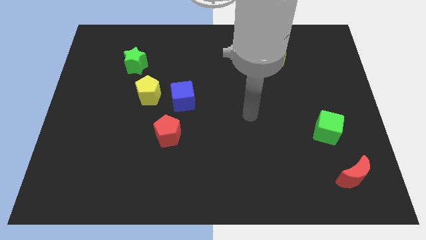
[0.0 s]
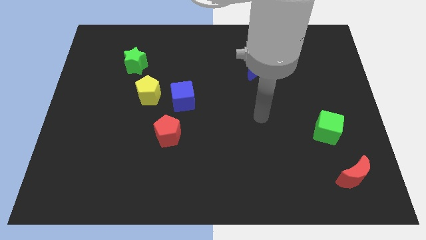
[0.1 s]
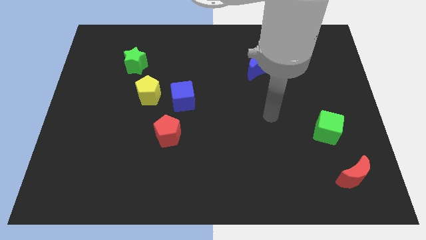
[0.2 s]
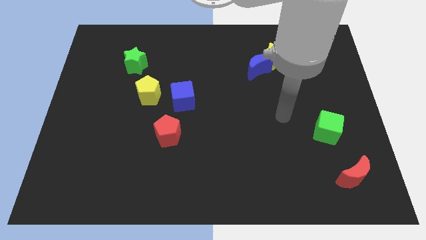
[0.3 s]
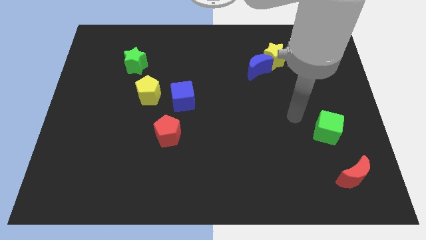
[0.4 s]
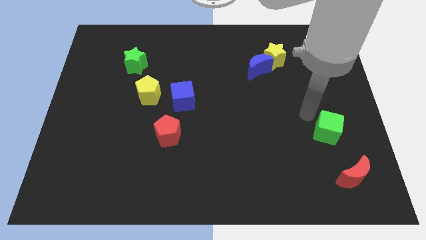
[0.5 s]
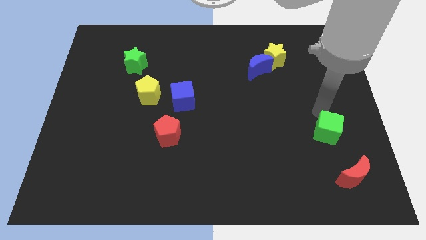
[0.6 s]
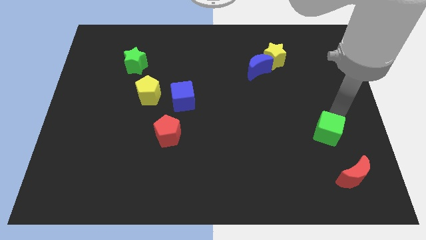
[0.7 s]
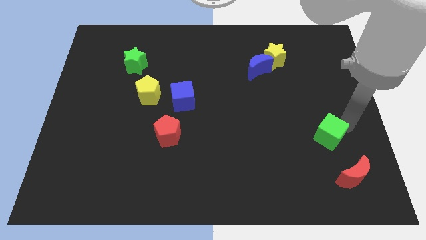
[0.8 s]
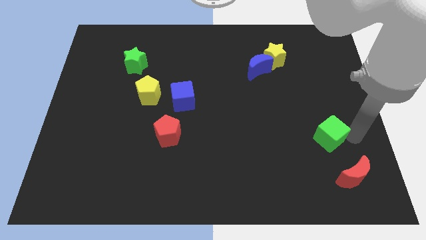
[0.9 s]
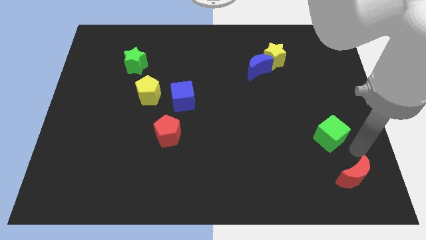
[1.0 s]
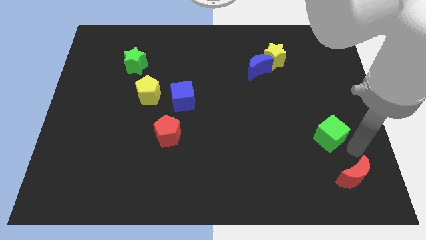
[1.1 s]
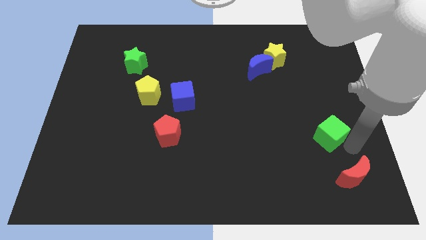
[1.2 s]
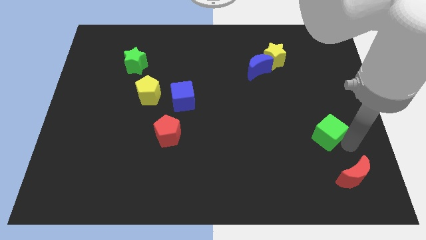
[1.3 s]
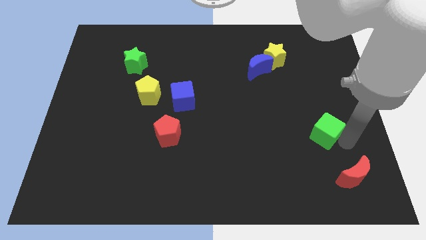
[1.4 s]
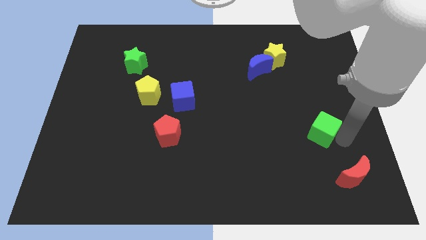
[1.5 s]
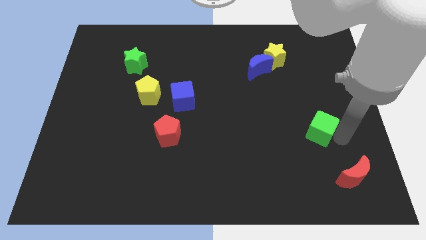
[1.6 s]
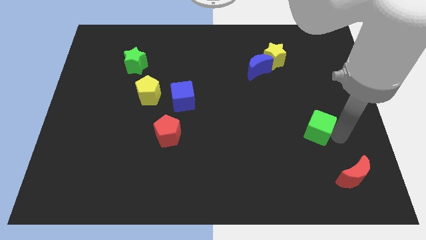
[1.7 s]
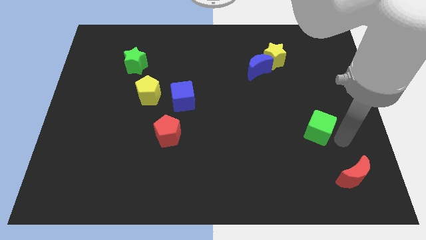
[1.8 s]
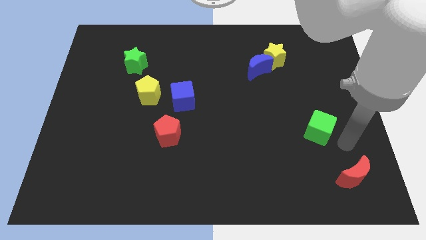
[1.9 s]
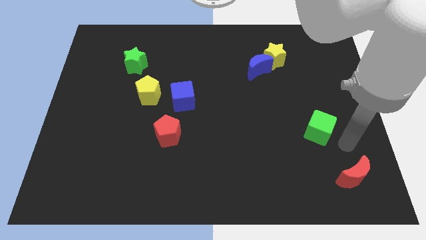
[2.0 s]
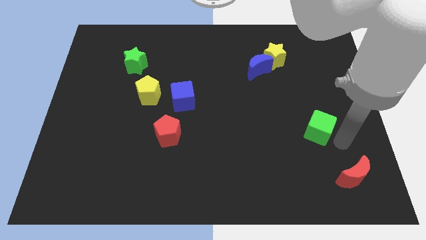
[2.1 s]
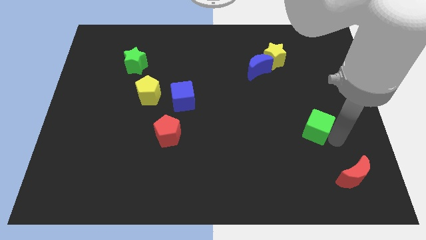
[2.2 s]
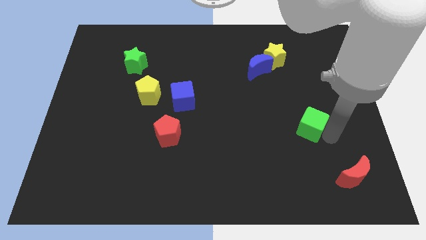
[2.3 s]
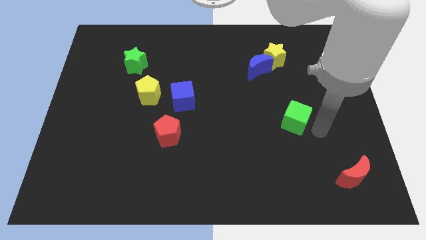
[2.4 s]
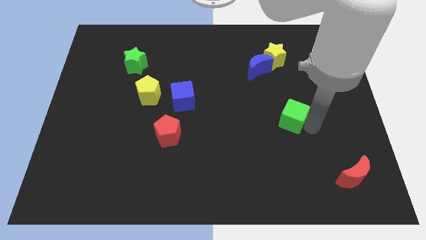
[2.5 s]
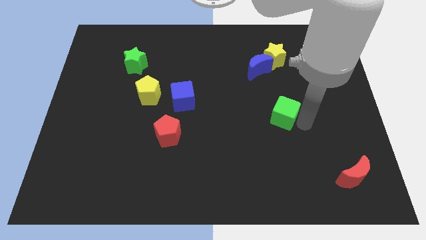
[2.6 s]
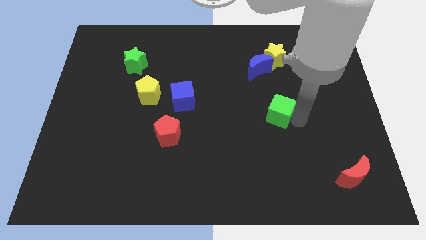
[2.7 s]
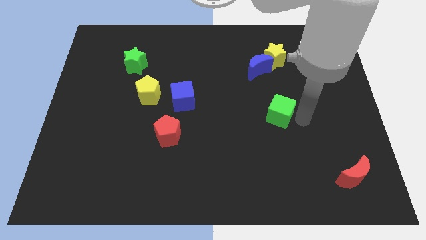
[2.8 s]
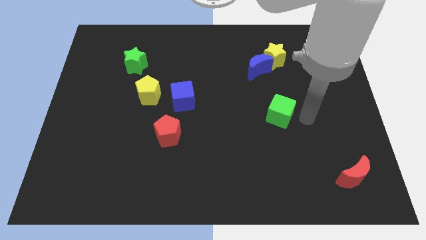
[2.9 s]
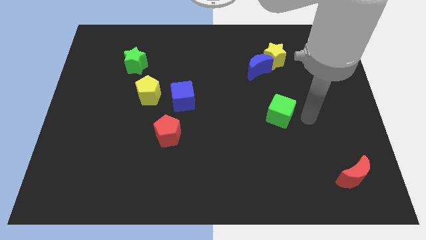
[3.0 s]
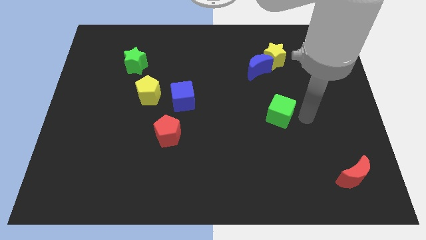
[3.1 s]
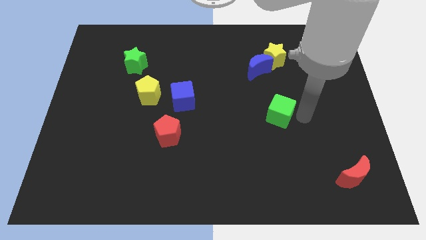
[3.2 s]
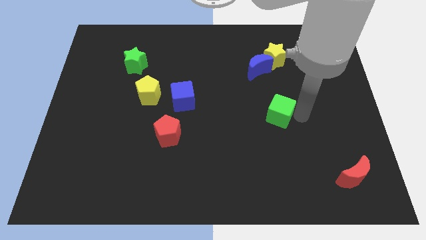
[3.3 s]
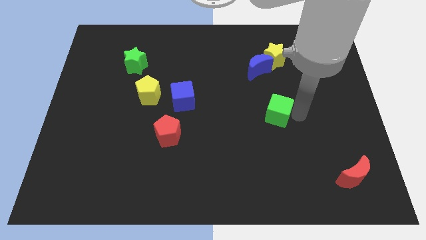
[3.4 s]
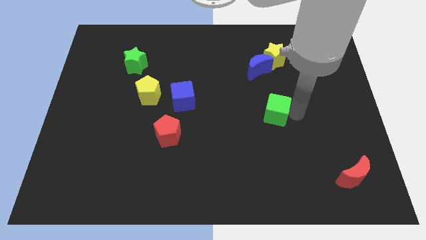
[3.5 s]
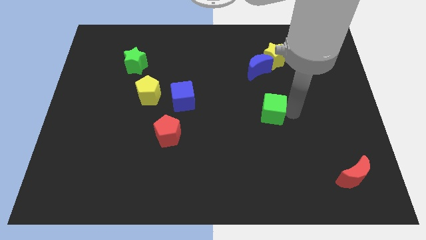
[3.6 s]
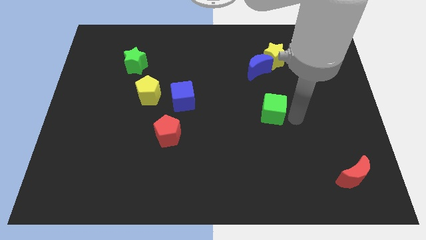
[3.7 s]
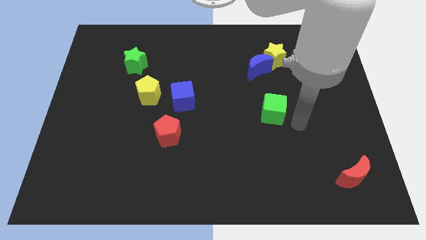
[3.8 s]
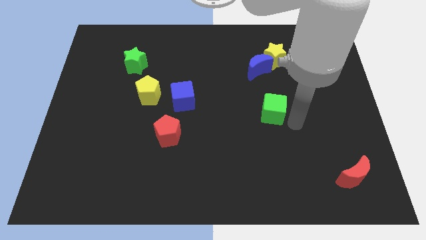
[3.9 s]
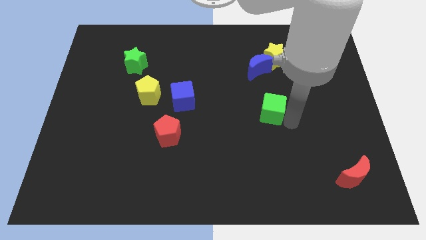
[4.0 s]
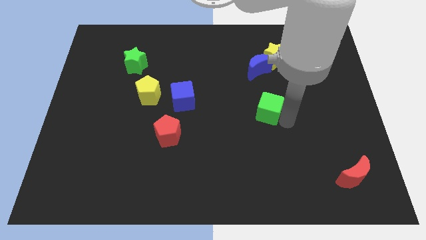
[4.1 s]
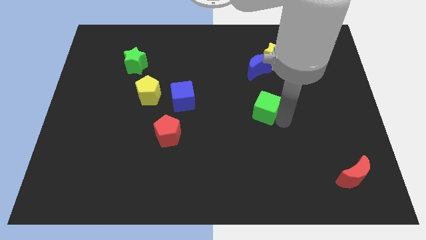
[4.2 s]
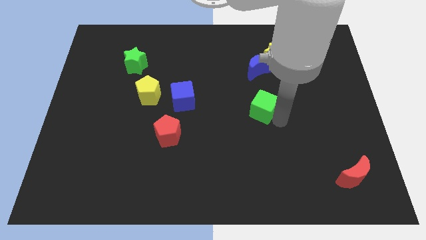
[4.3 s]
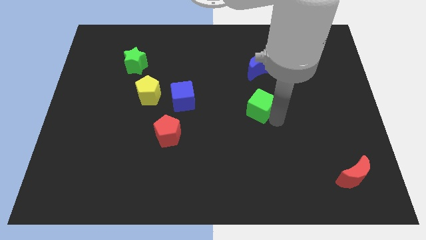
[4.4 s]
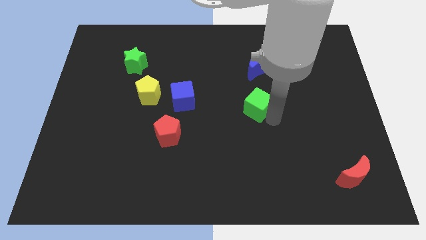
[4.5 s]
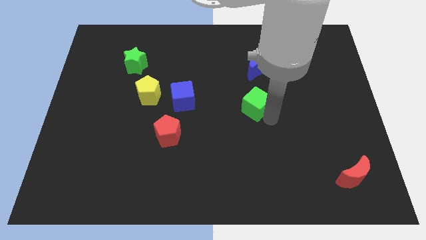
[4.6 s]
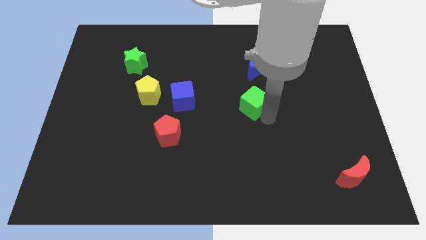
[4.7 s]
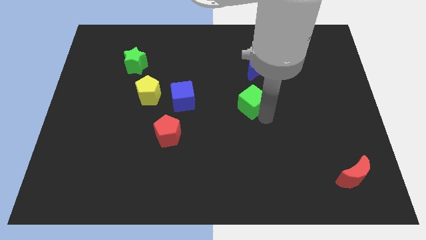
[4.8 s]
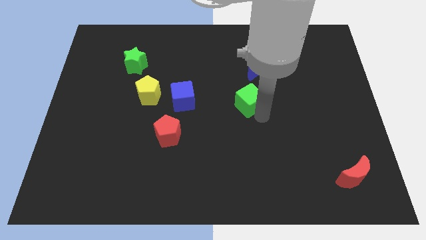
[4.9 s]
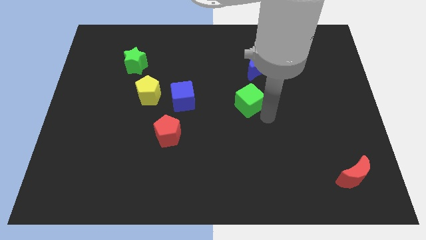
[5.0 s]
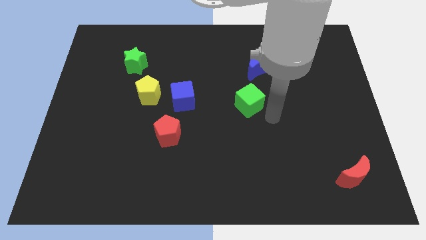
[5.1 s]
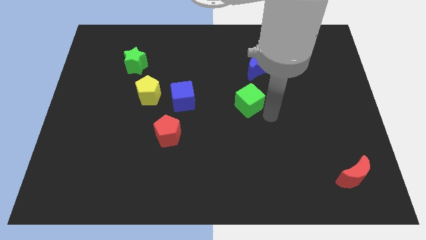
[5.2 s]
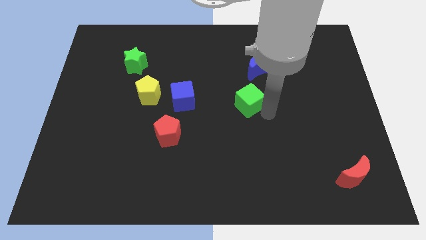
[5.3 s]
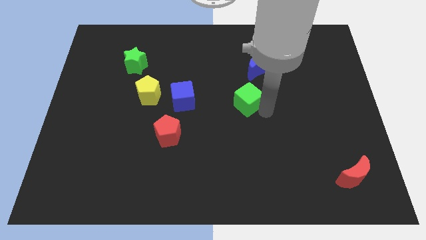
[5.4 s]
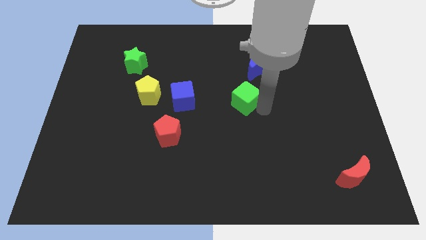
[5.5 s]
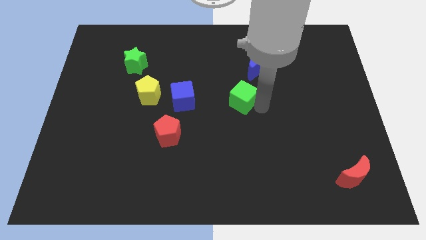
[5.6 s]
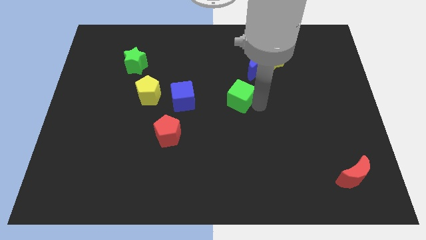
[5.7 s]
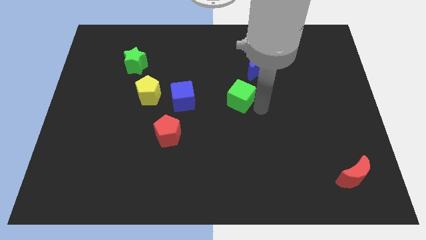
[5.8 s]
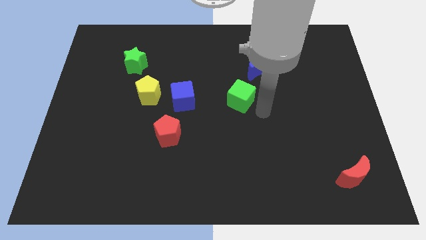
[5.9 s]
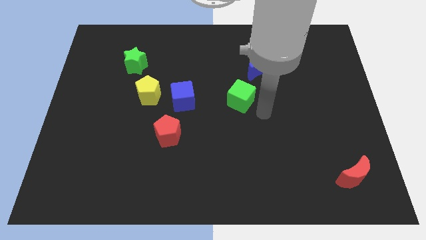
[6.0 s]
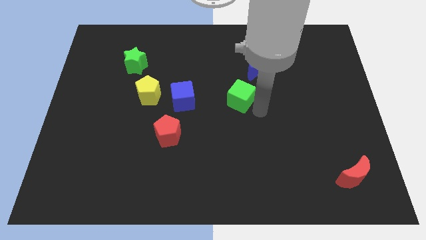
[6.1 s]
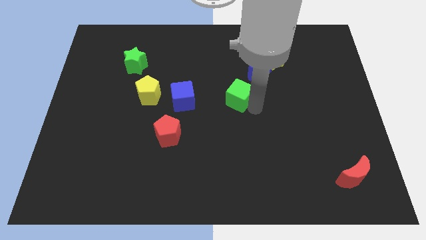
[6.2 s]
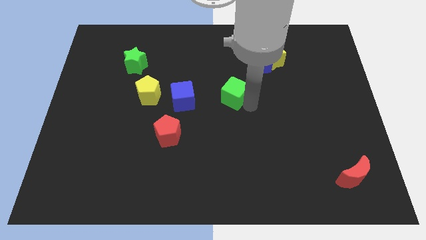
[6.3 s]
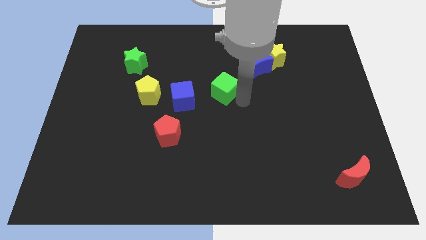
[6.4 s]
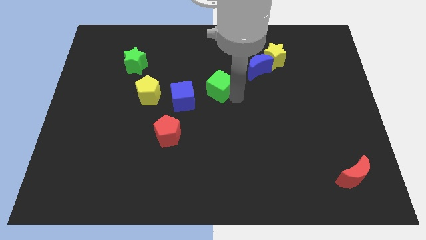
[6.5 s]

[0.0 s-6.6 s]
push the green cube diagonally up and to the right of the blue cube
